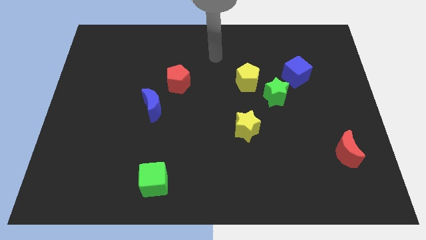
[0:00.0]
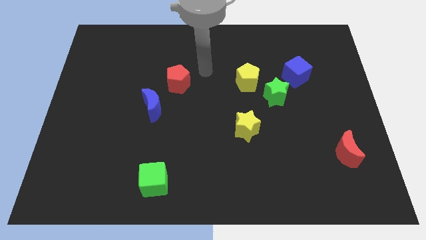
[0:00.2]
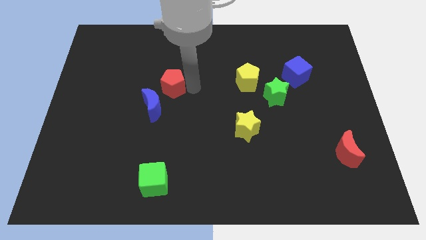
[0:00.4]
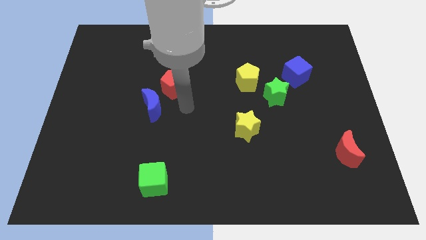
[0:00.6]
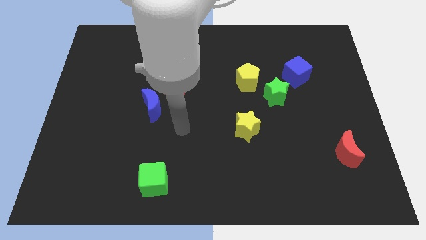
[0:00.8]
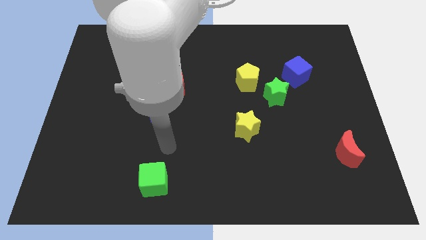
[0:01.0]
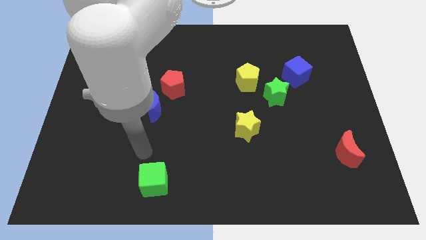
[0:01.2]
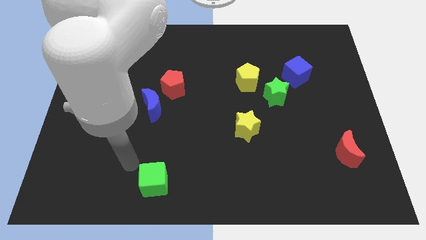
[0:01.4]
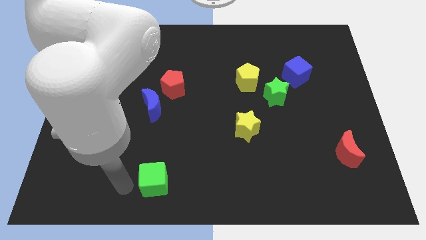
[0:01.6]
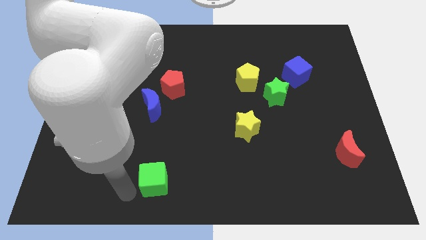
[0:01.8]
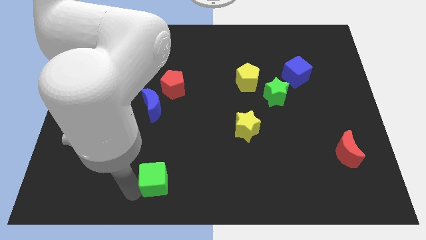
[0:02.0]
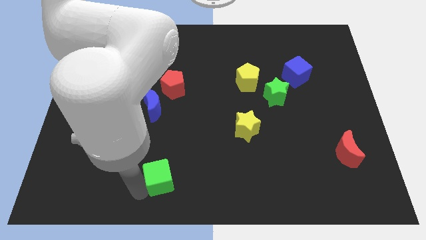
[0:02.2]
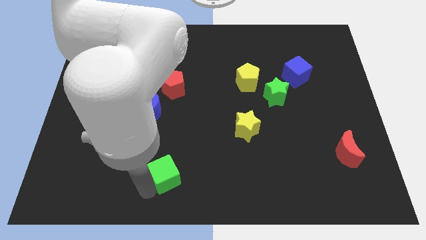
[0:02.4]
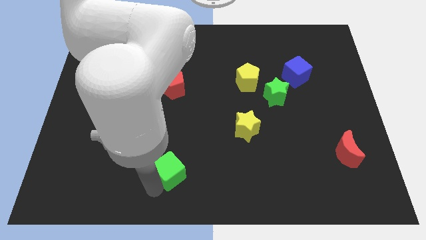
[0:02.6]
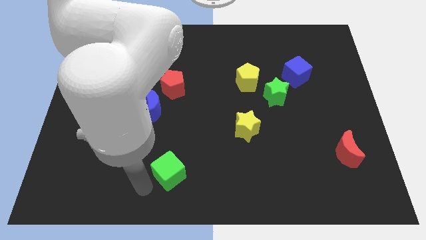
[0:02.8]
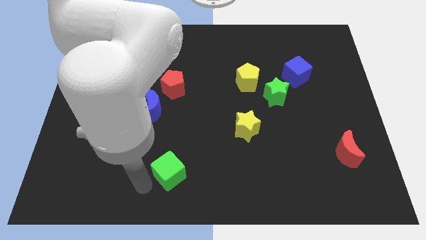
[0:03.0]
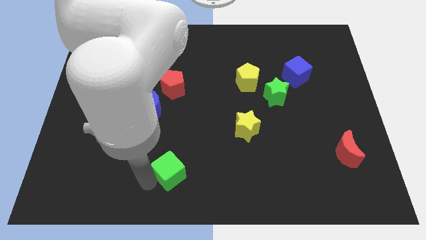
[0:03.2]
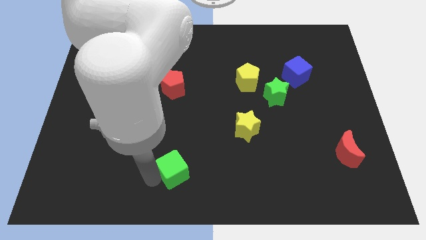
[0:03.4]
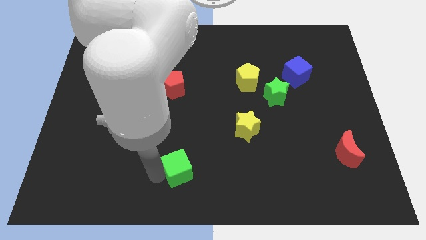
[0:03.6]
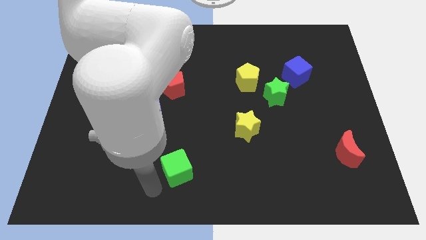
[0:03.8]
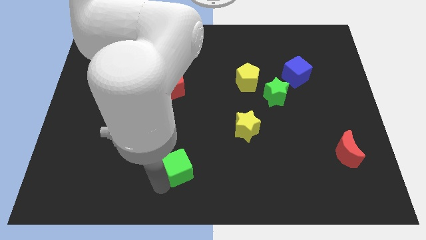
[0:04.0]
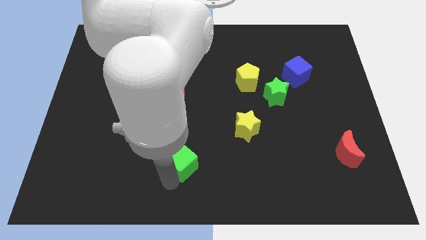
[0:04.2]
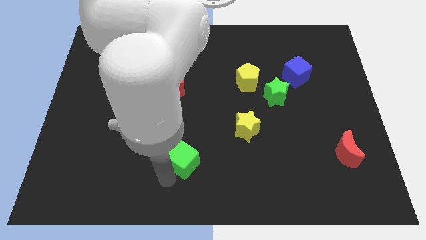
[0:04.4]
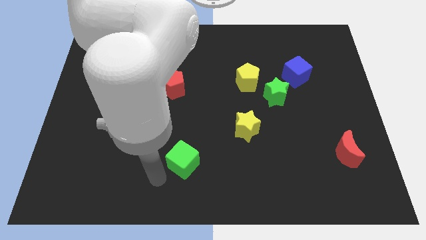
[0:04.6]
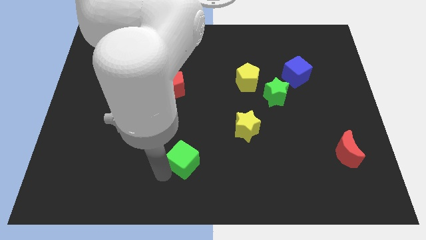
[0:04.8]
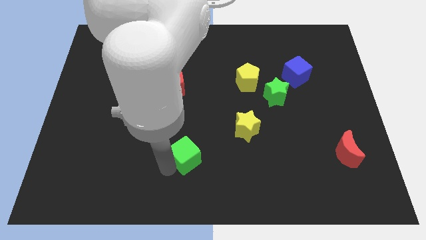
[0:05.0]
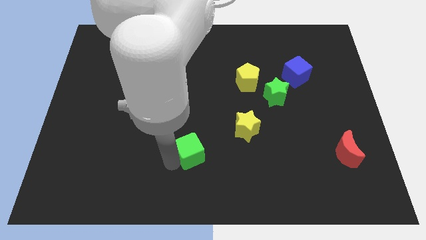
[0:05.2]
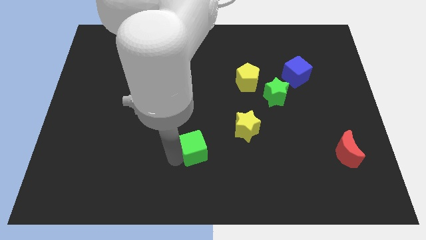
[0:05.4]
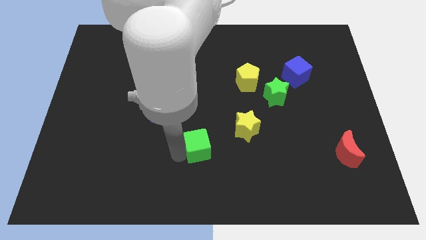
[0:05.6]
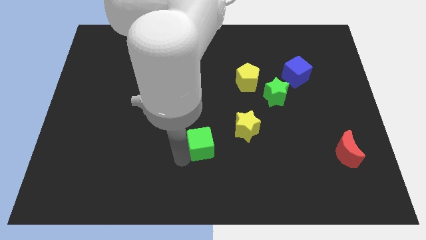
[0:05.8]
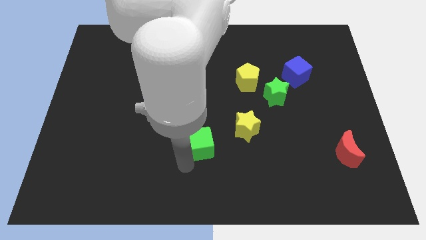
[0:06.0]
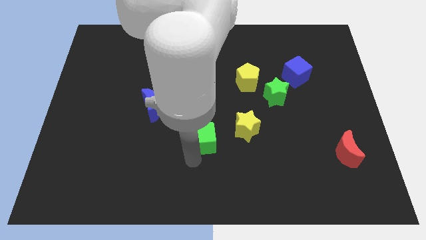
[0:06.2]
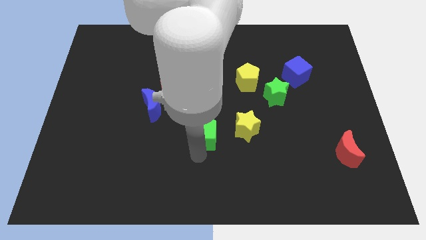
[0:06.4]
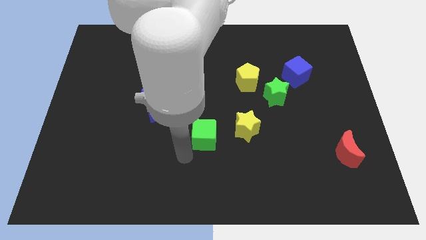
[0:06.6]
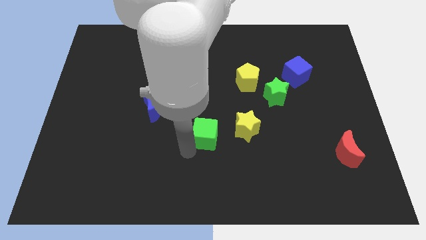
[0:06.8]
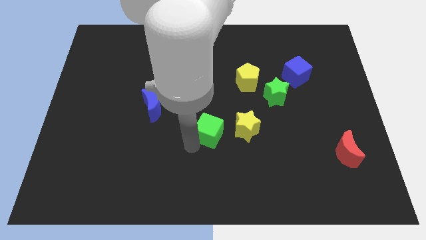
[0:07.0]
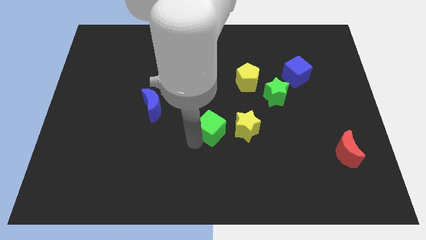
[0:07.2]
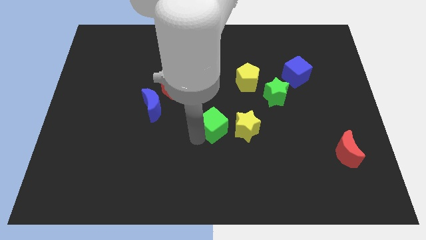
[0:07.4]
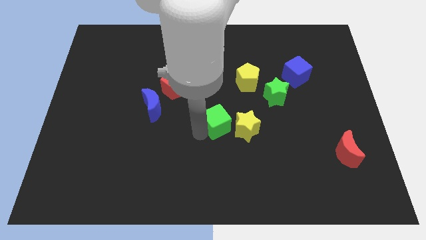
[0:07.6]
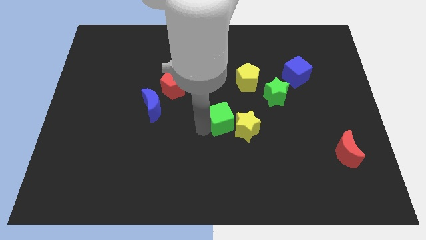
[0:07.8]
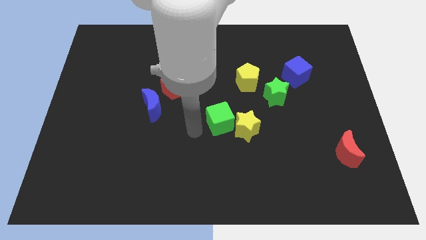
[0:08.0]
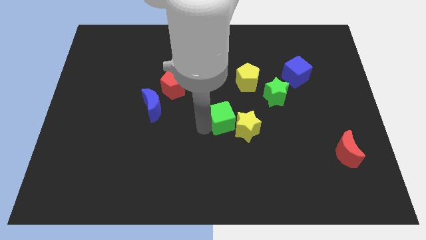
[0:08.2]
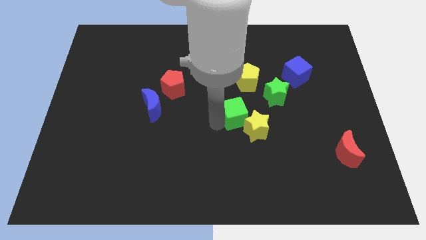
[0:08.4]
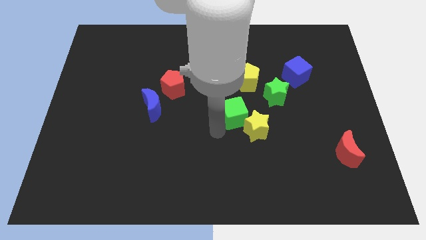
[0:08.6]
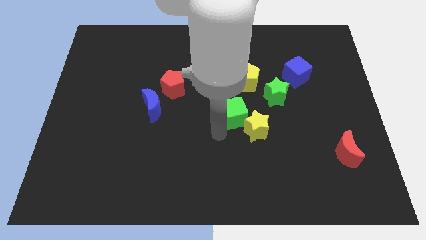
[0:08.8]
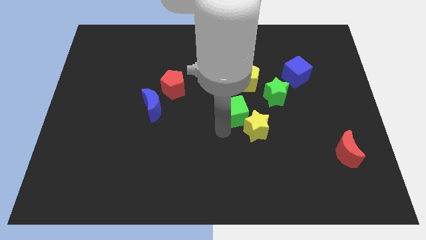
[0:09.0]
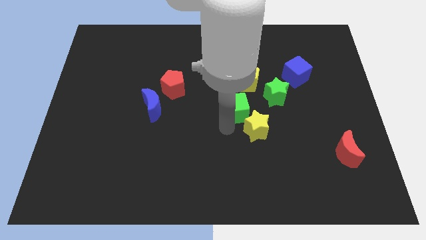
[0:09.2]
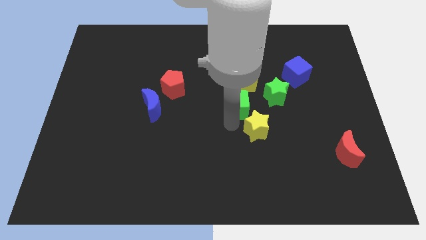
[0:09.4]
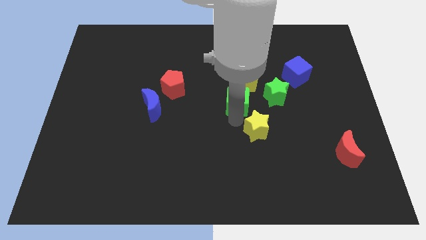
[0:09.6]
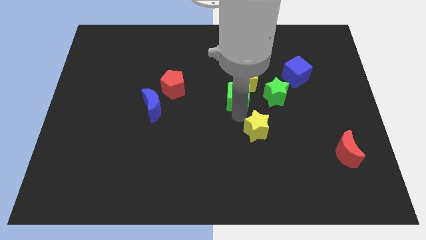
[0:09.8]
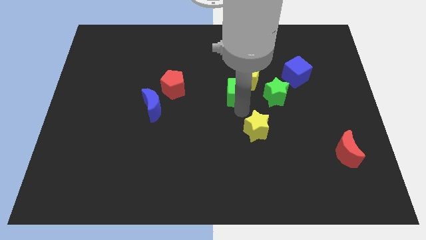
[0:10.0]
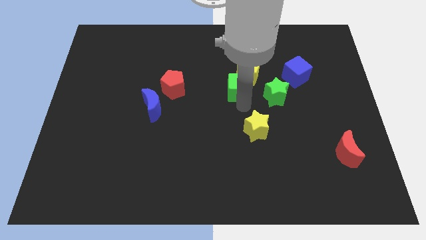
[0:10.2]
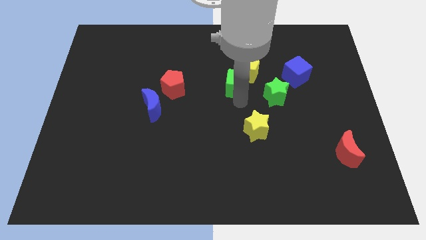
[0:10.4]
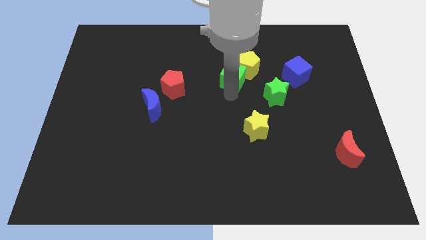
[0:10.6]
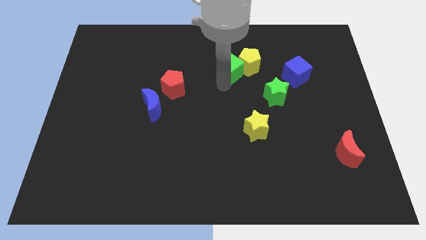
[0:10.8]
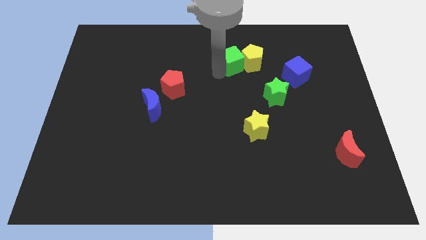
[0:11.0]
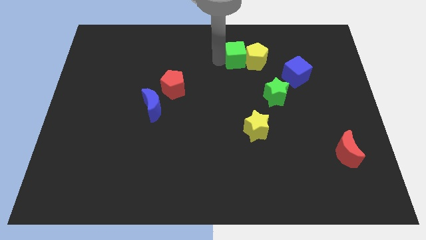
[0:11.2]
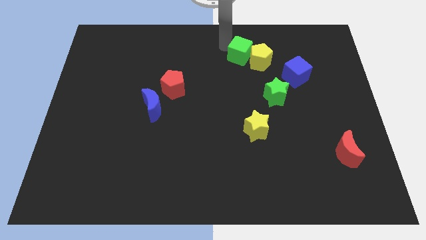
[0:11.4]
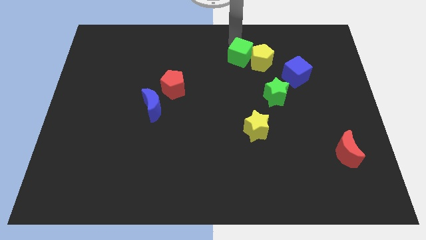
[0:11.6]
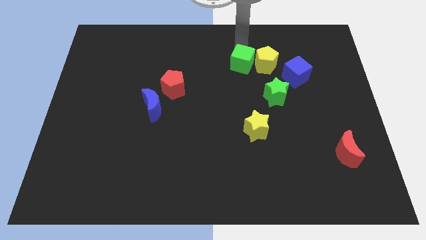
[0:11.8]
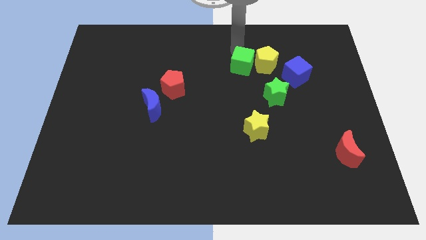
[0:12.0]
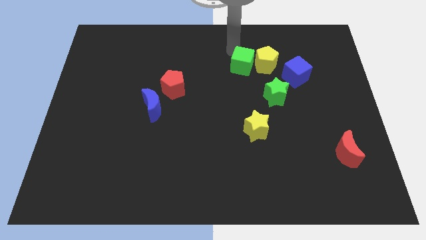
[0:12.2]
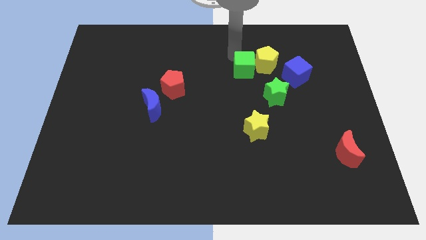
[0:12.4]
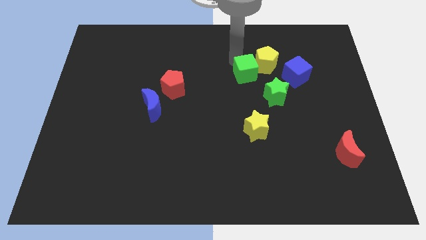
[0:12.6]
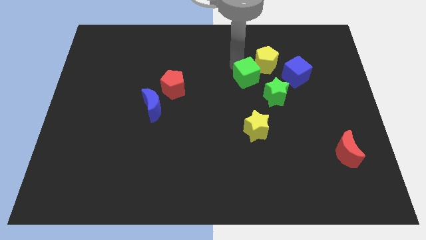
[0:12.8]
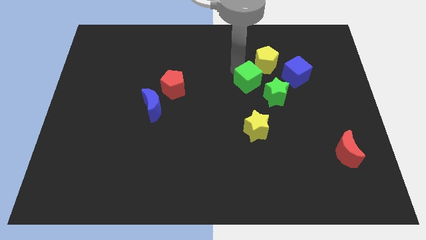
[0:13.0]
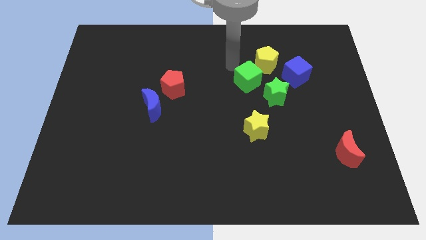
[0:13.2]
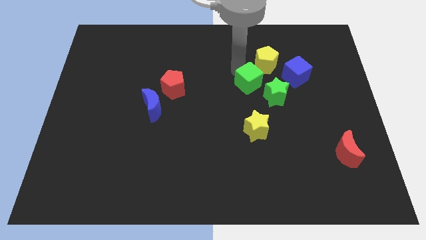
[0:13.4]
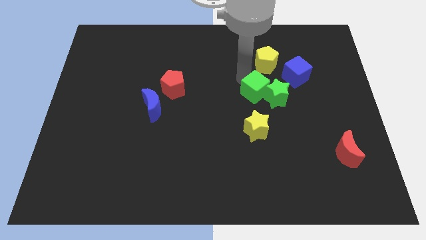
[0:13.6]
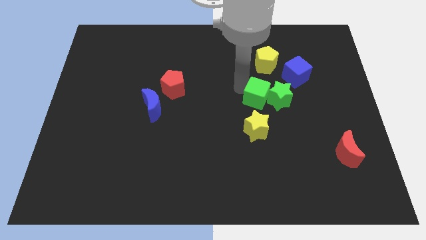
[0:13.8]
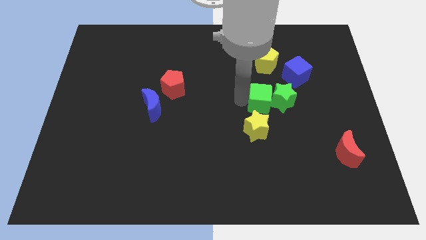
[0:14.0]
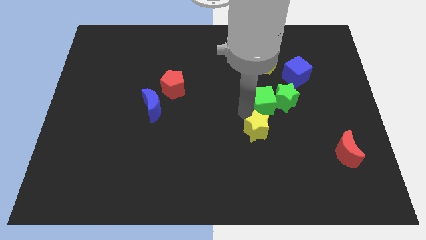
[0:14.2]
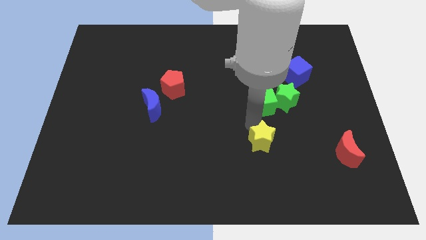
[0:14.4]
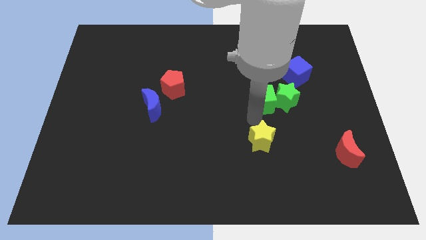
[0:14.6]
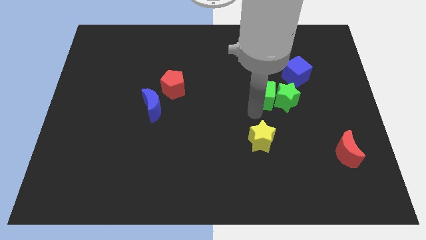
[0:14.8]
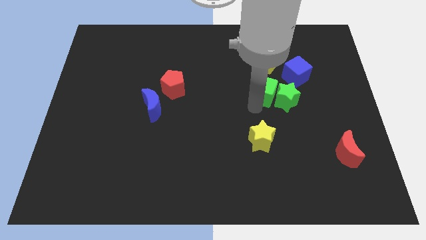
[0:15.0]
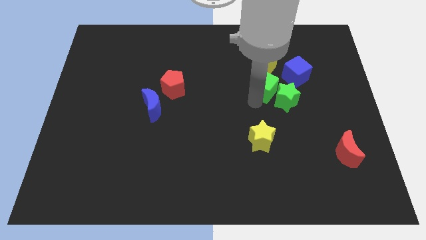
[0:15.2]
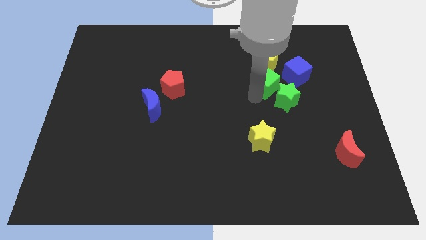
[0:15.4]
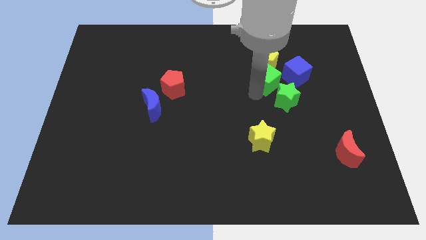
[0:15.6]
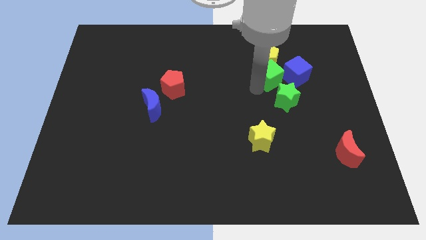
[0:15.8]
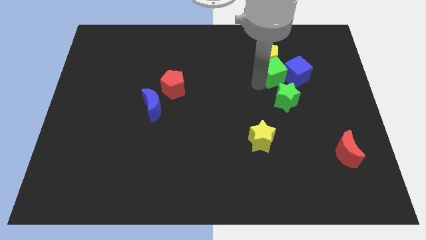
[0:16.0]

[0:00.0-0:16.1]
slide the green cube to the blue cube
